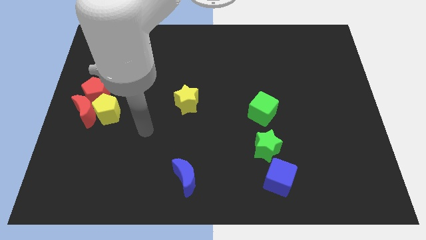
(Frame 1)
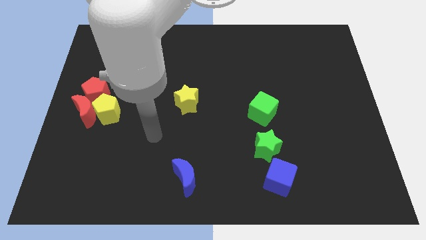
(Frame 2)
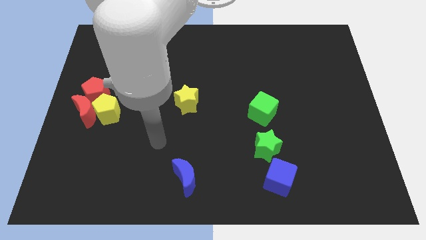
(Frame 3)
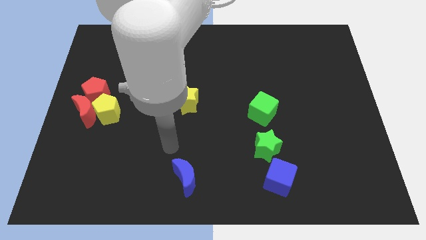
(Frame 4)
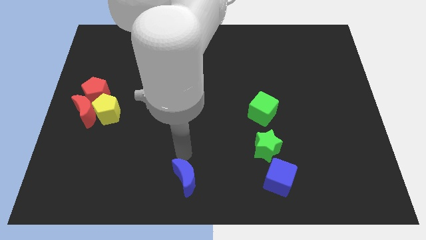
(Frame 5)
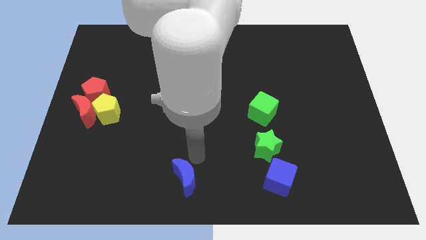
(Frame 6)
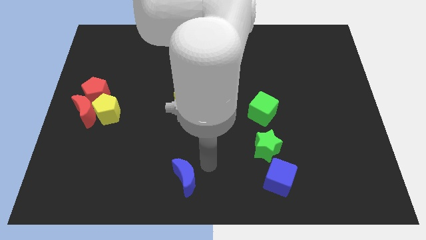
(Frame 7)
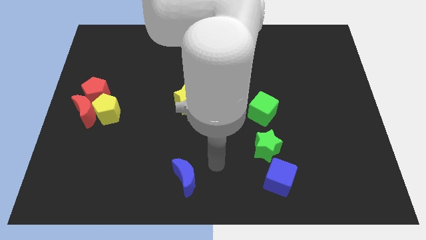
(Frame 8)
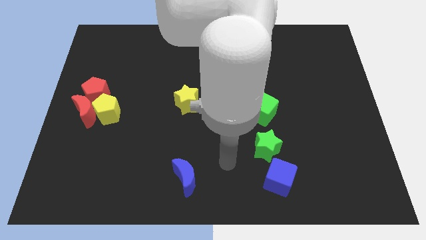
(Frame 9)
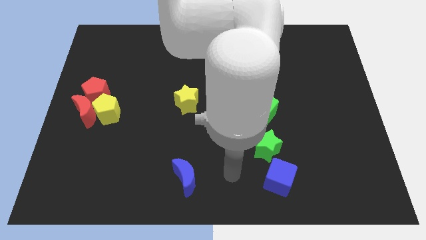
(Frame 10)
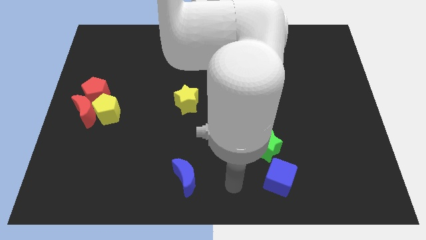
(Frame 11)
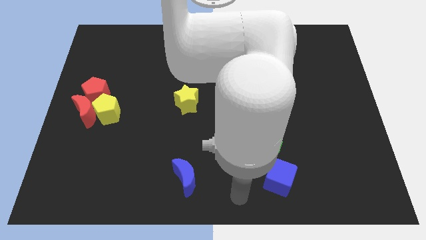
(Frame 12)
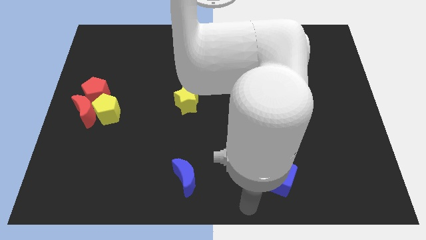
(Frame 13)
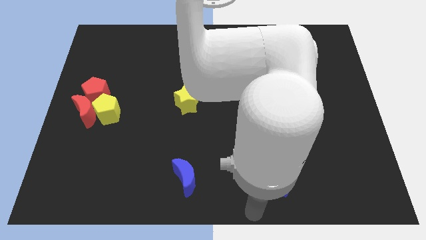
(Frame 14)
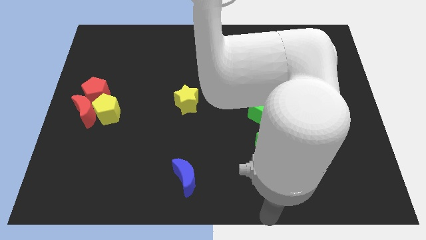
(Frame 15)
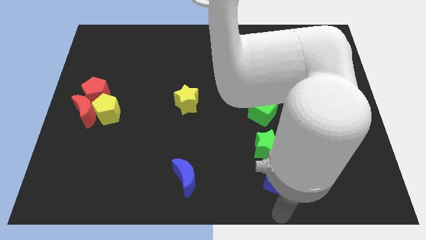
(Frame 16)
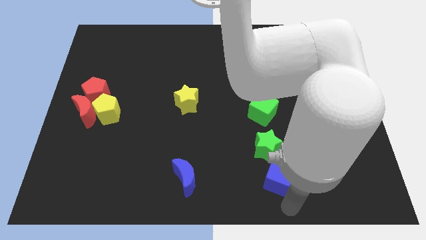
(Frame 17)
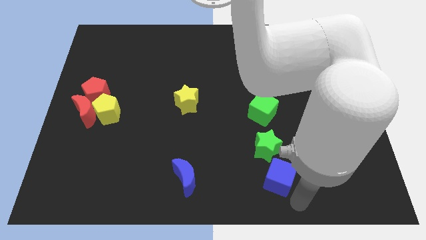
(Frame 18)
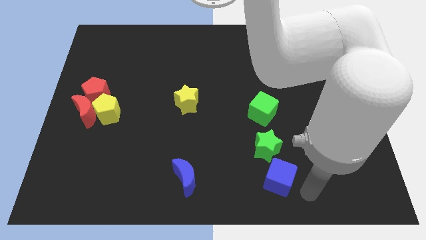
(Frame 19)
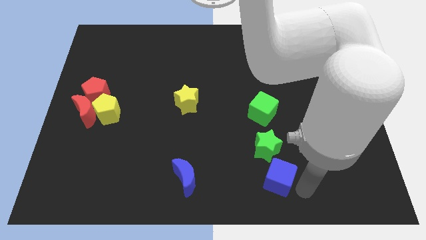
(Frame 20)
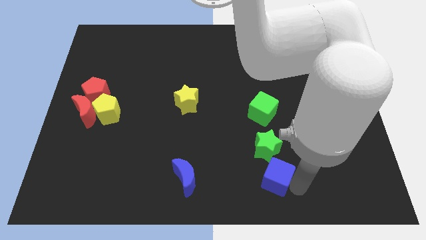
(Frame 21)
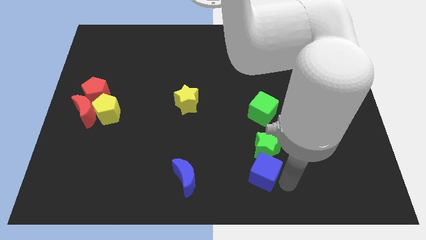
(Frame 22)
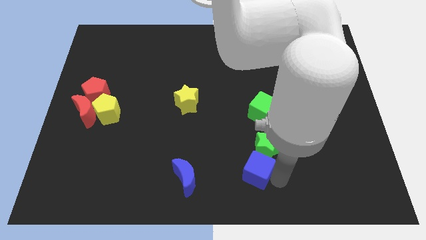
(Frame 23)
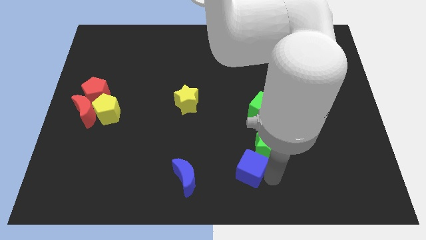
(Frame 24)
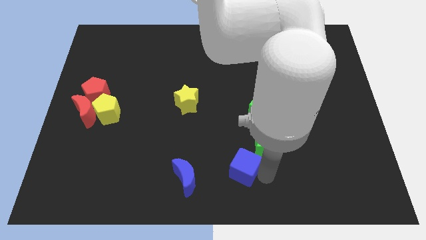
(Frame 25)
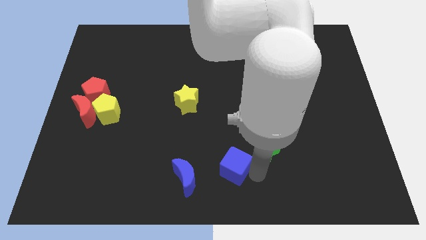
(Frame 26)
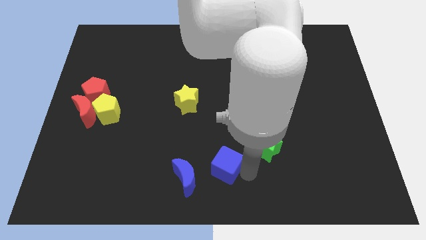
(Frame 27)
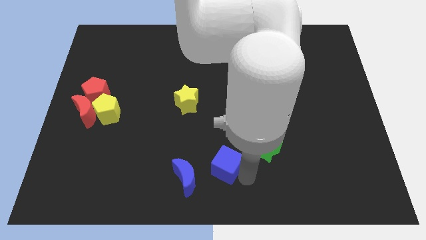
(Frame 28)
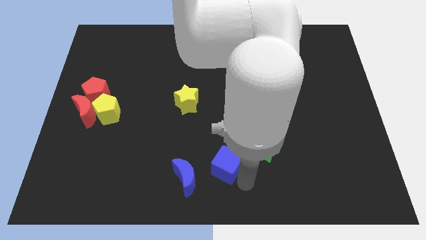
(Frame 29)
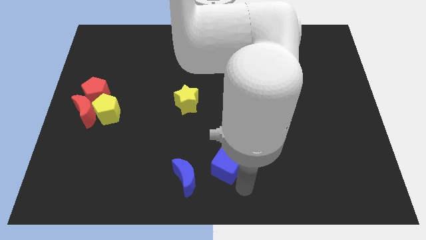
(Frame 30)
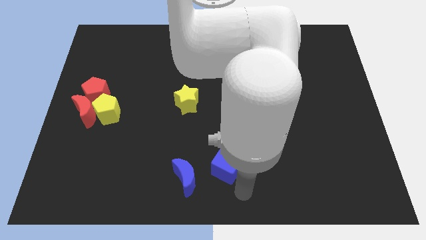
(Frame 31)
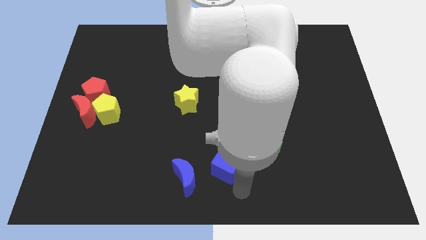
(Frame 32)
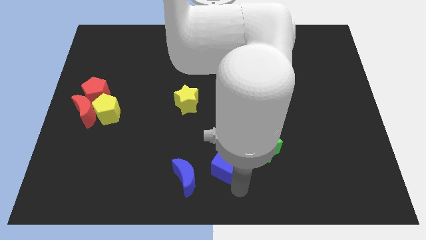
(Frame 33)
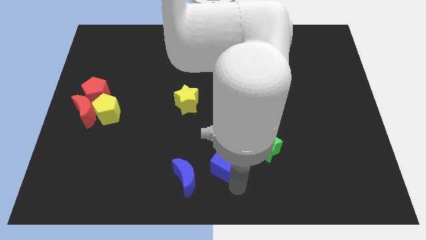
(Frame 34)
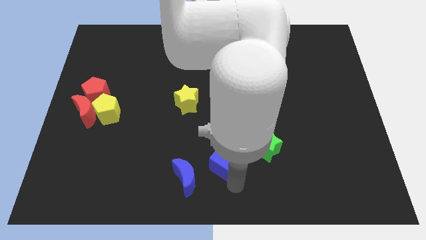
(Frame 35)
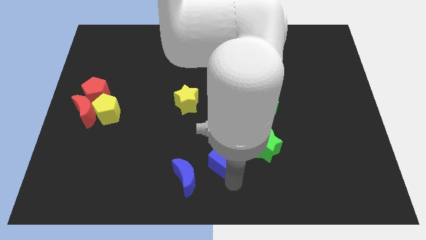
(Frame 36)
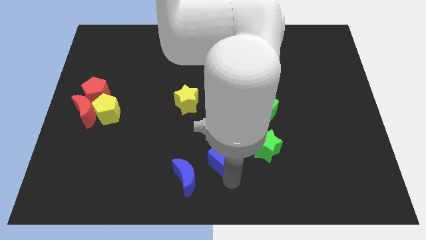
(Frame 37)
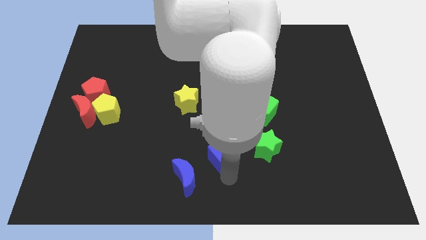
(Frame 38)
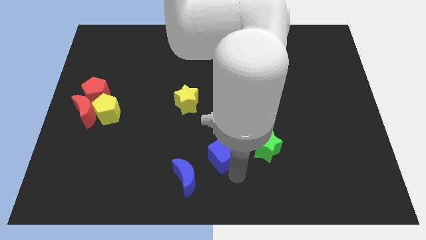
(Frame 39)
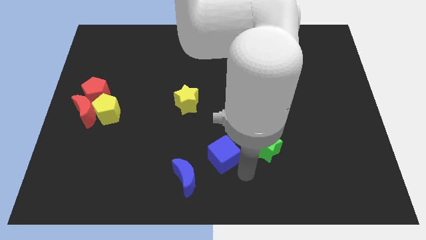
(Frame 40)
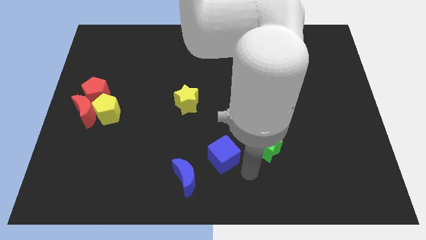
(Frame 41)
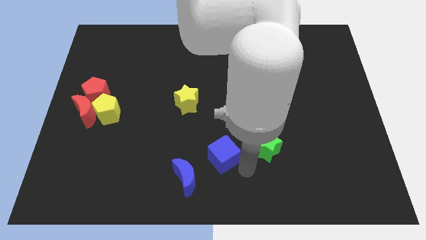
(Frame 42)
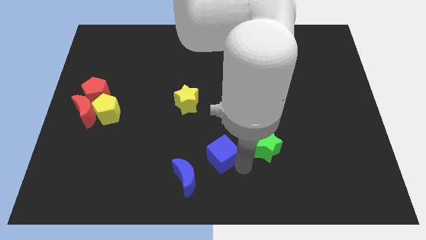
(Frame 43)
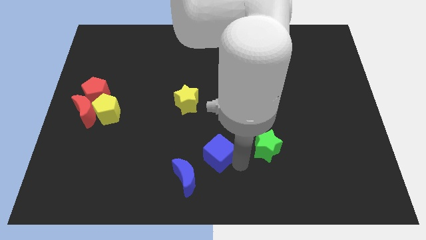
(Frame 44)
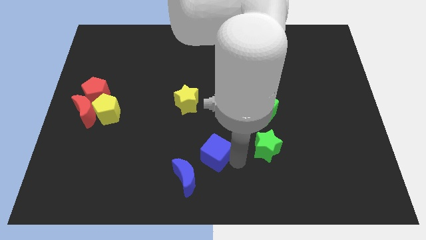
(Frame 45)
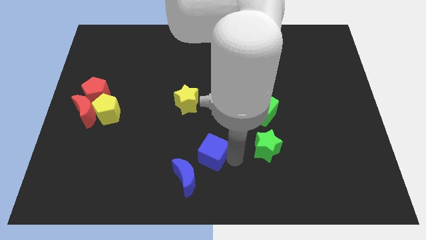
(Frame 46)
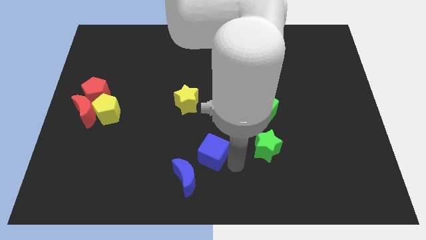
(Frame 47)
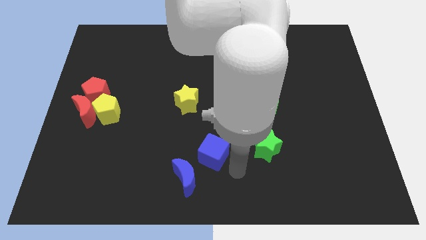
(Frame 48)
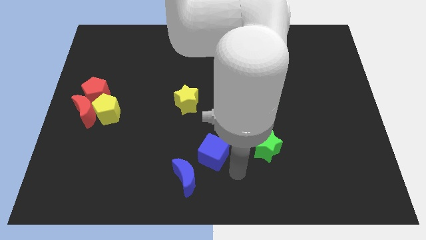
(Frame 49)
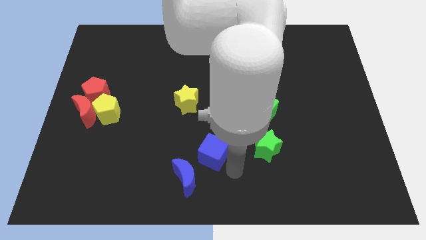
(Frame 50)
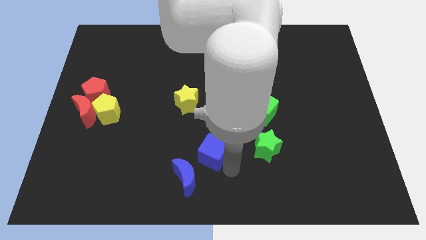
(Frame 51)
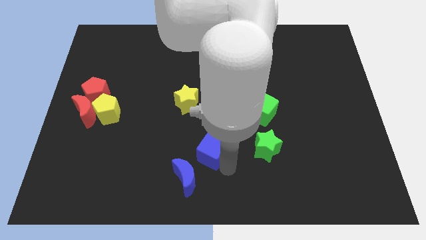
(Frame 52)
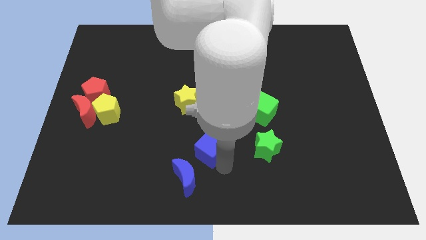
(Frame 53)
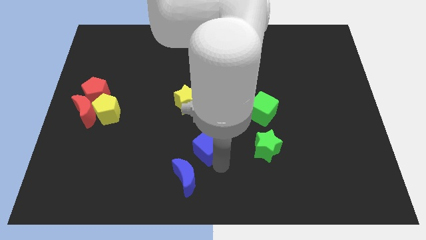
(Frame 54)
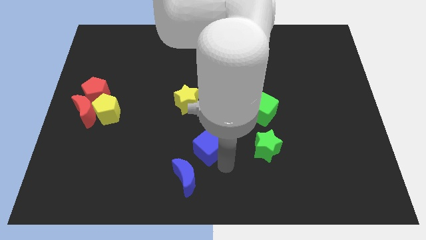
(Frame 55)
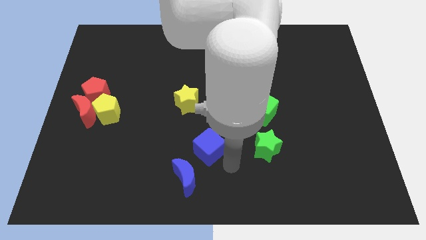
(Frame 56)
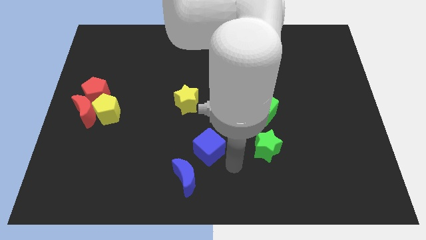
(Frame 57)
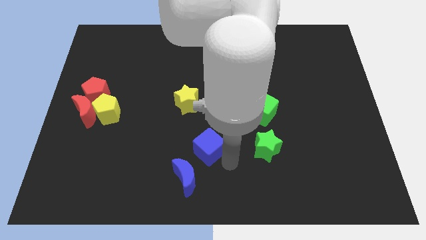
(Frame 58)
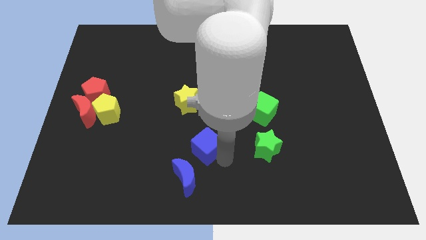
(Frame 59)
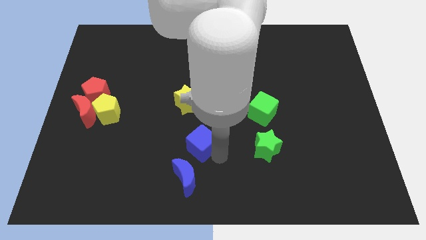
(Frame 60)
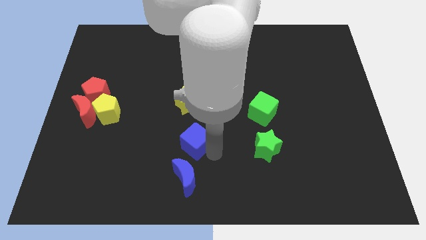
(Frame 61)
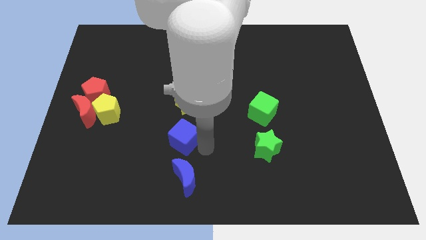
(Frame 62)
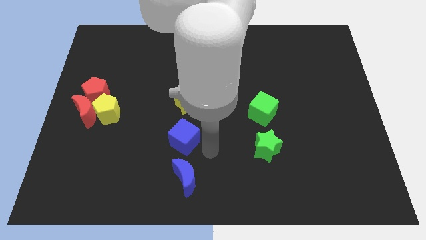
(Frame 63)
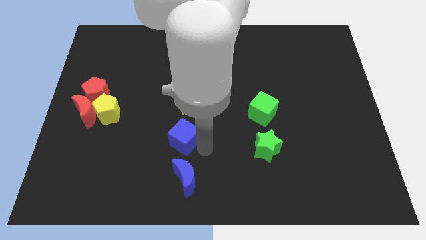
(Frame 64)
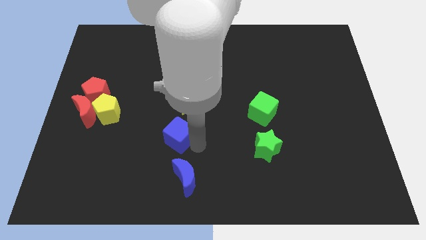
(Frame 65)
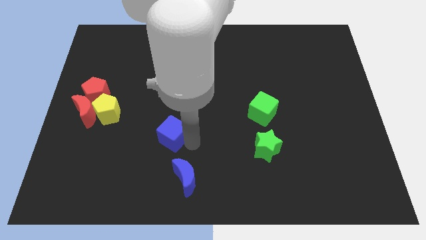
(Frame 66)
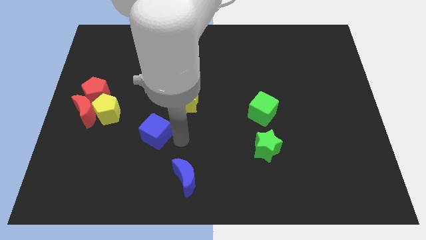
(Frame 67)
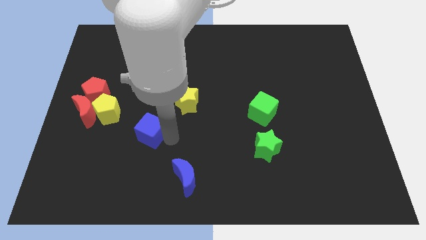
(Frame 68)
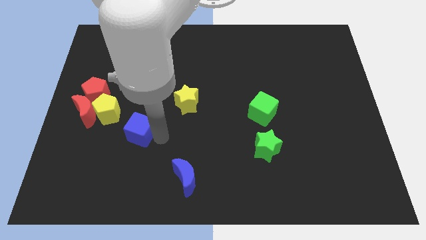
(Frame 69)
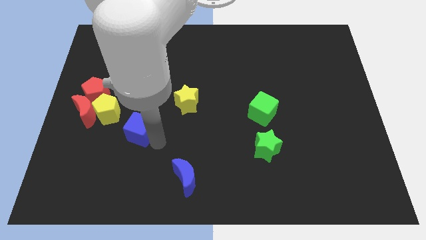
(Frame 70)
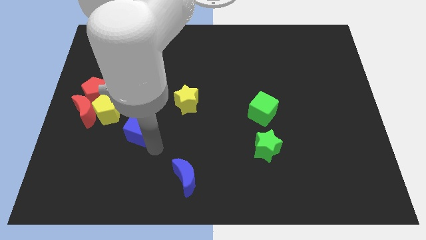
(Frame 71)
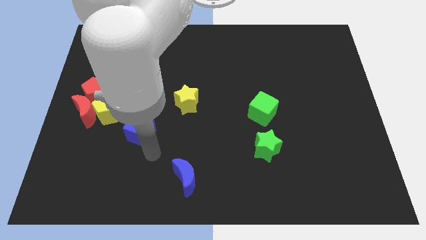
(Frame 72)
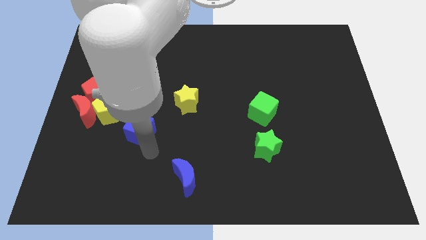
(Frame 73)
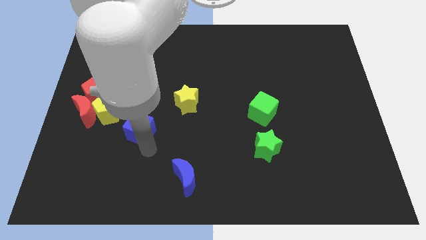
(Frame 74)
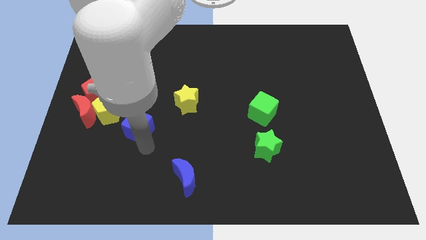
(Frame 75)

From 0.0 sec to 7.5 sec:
move the blue cube just right of the red moon
